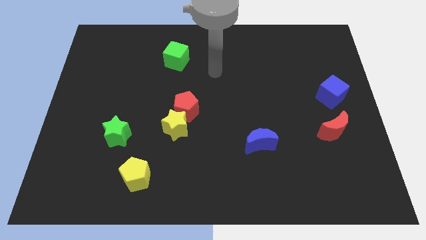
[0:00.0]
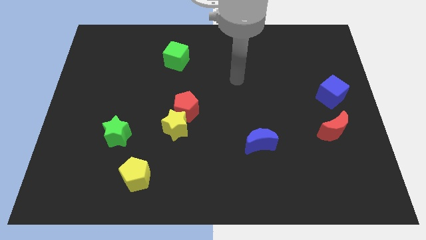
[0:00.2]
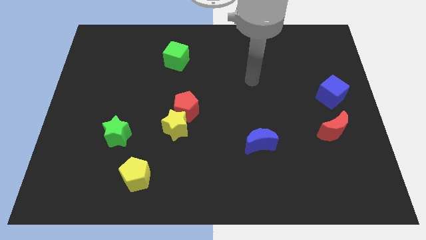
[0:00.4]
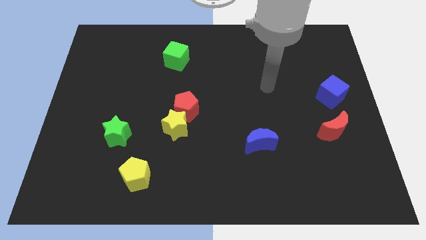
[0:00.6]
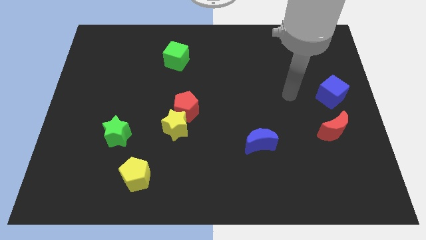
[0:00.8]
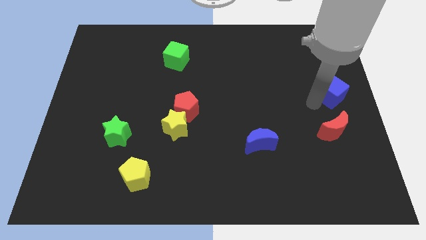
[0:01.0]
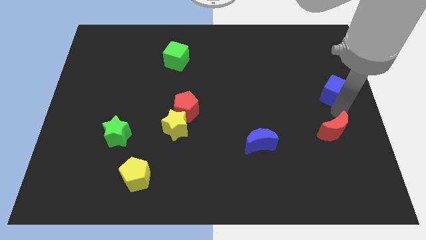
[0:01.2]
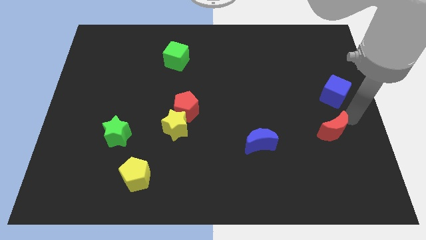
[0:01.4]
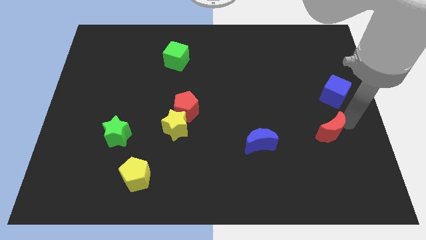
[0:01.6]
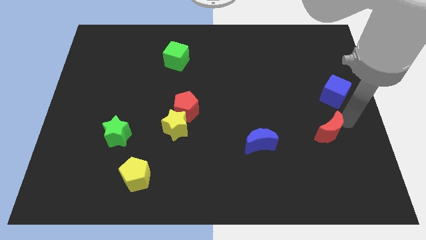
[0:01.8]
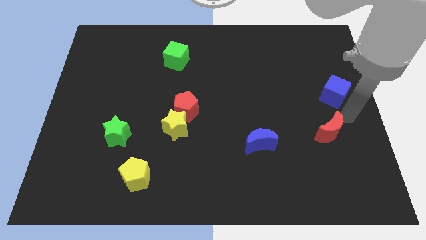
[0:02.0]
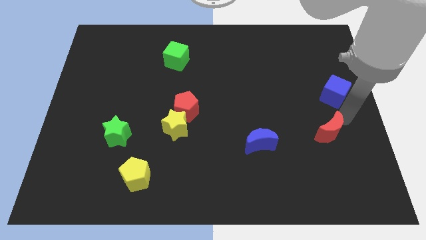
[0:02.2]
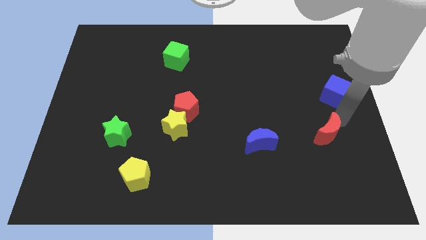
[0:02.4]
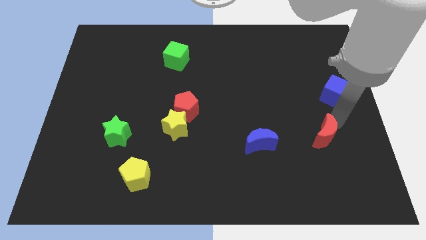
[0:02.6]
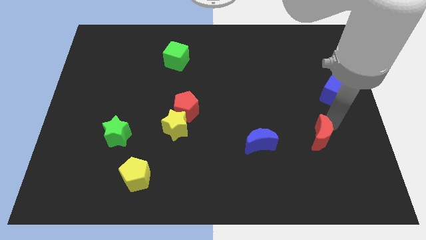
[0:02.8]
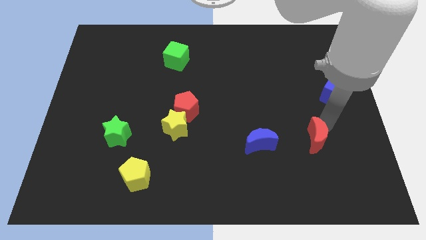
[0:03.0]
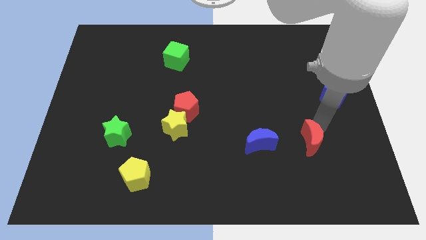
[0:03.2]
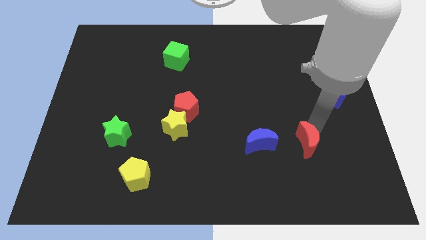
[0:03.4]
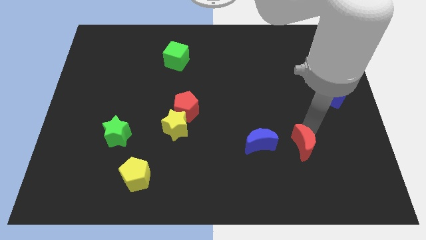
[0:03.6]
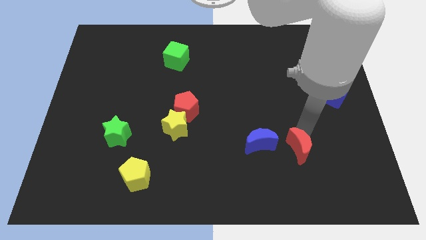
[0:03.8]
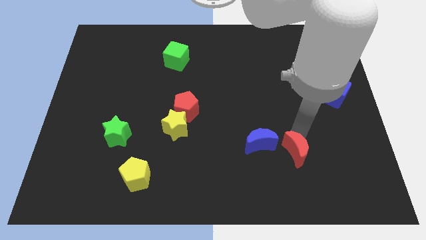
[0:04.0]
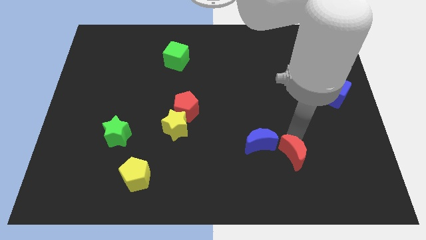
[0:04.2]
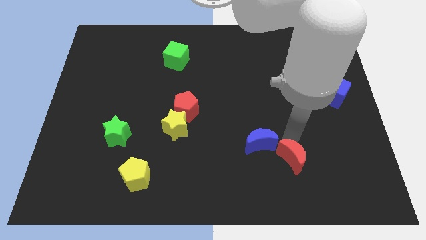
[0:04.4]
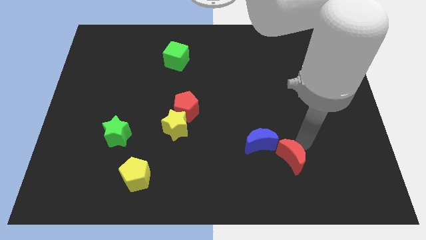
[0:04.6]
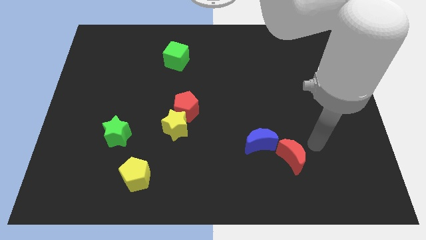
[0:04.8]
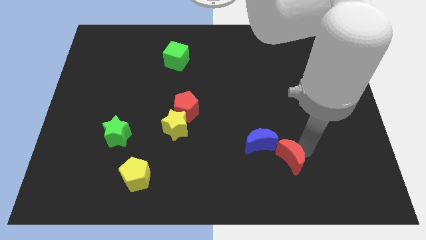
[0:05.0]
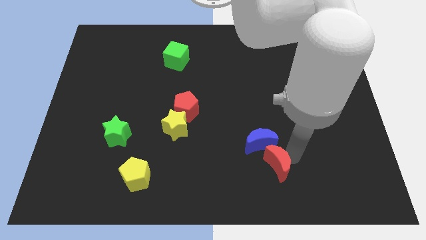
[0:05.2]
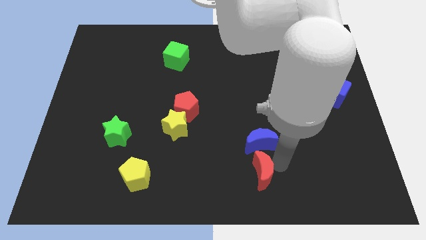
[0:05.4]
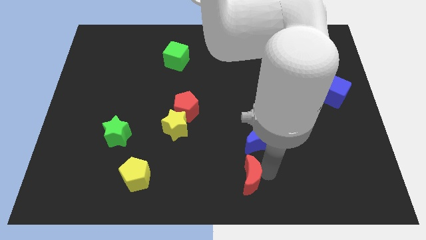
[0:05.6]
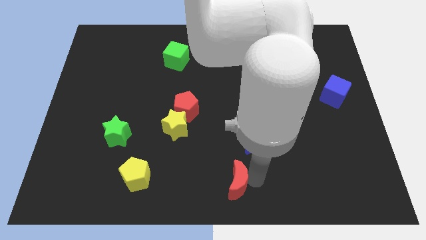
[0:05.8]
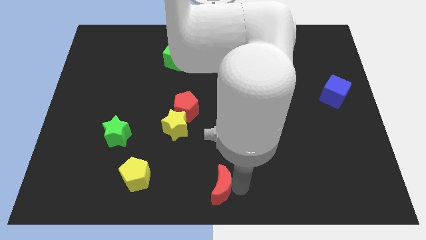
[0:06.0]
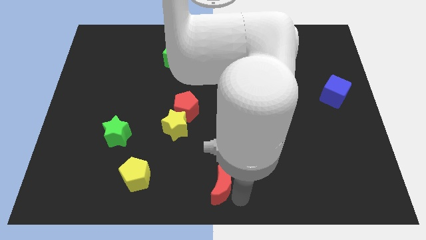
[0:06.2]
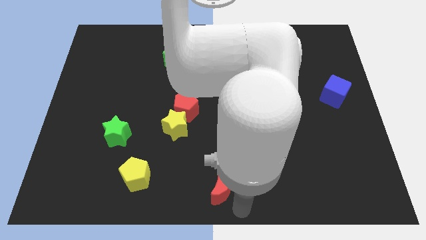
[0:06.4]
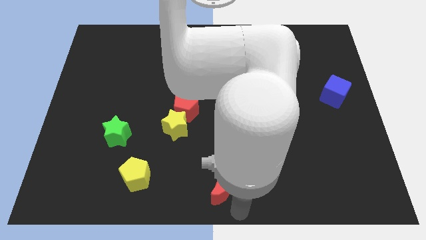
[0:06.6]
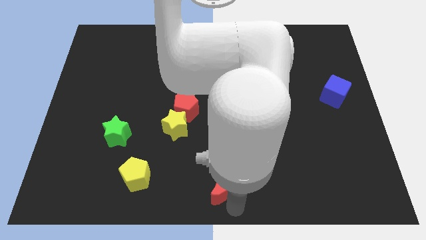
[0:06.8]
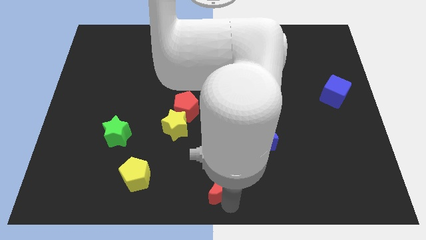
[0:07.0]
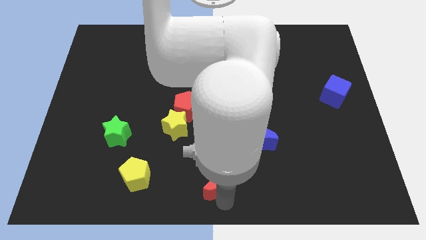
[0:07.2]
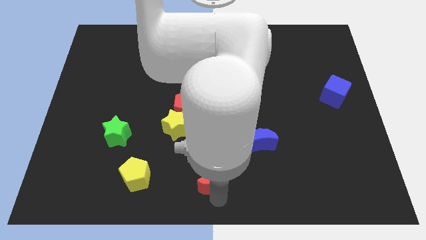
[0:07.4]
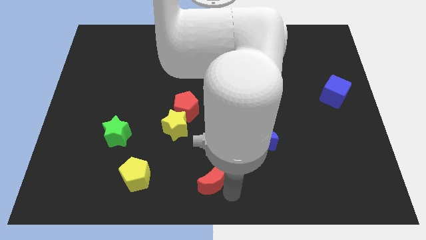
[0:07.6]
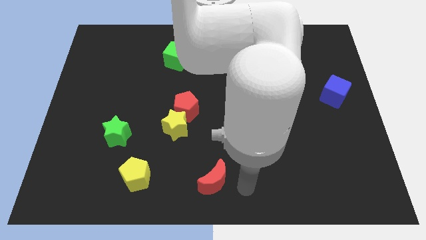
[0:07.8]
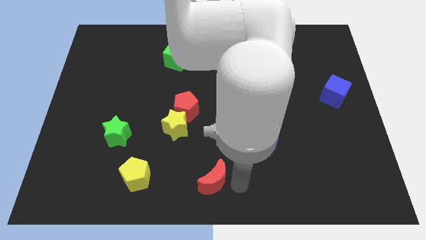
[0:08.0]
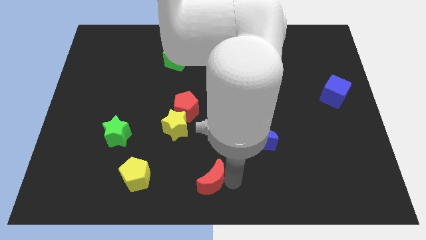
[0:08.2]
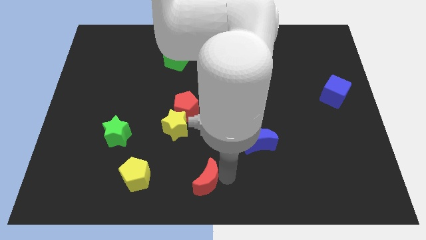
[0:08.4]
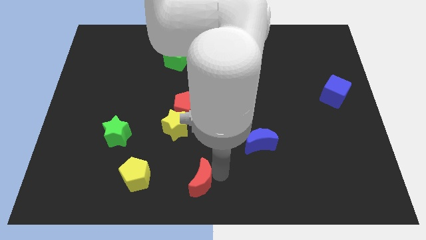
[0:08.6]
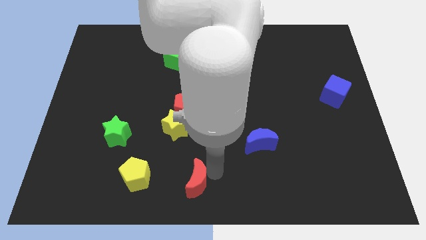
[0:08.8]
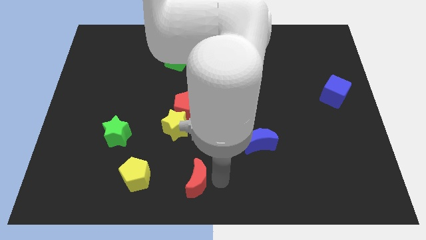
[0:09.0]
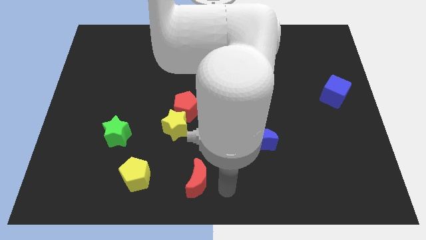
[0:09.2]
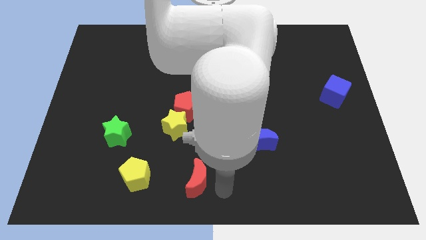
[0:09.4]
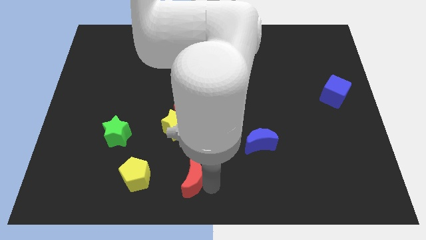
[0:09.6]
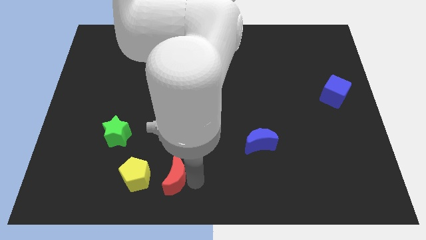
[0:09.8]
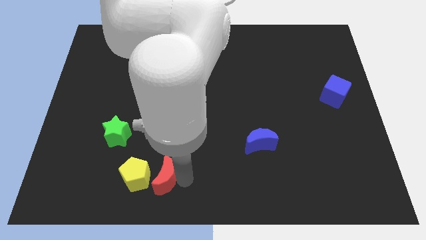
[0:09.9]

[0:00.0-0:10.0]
push the red moon close to the yellow pentagon

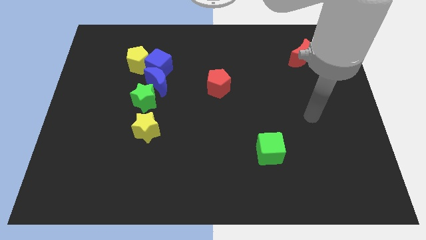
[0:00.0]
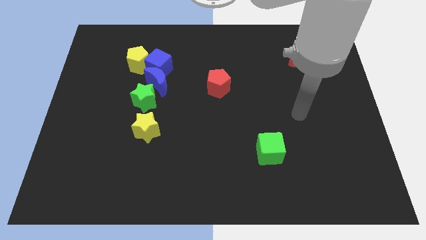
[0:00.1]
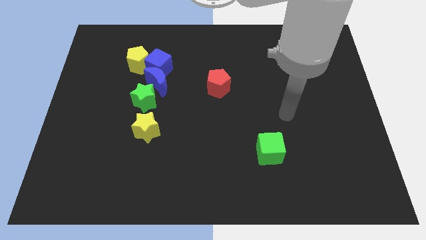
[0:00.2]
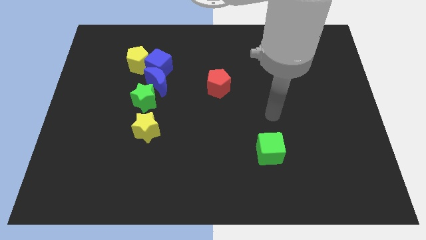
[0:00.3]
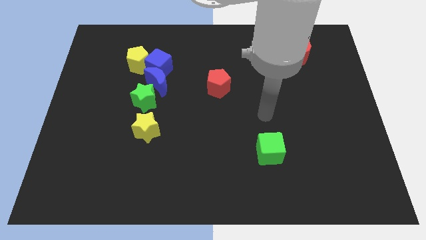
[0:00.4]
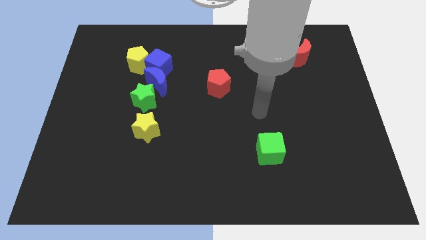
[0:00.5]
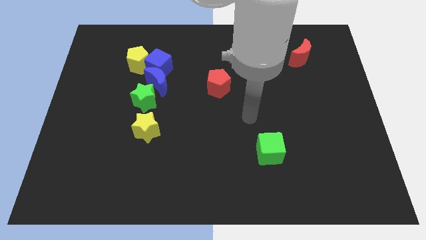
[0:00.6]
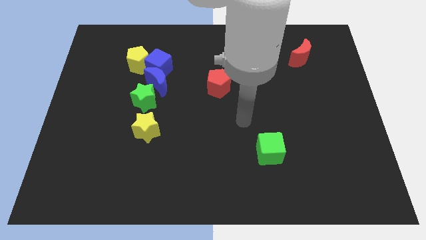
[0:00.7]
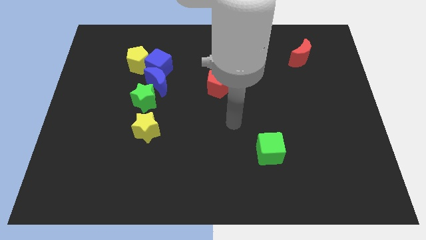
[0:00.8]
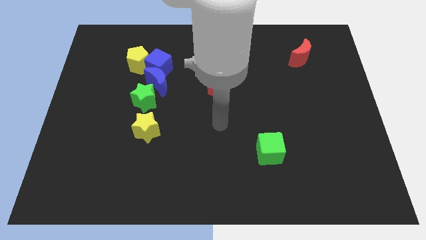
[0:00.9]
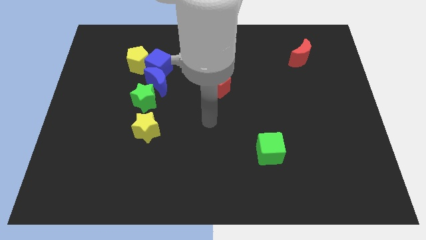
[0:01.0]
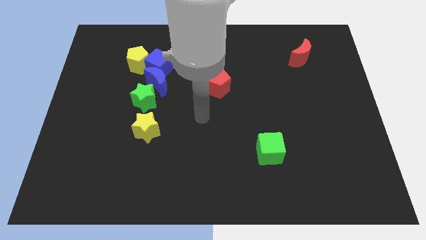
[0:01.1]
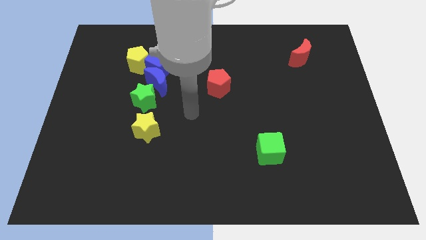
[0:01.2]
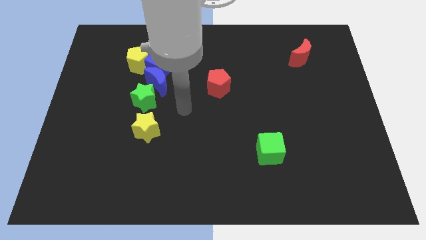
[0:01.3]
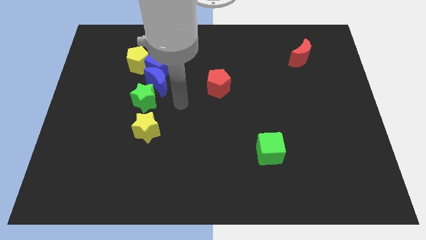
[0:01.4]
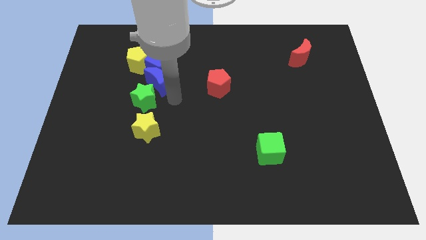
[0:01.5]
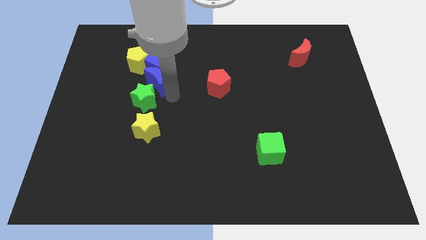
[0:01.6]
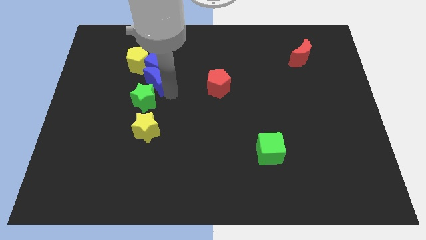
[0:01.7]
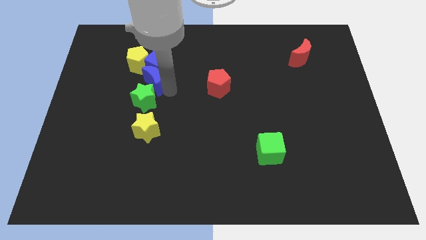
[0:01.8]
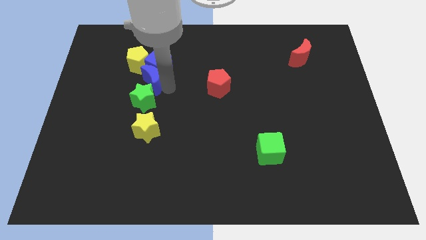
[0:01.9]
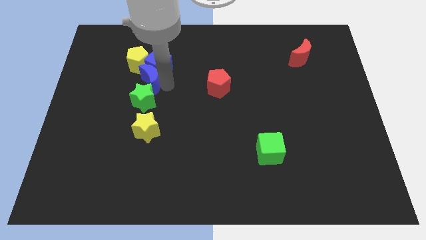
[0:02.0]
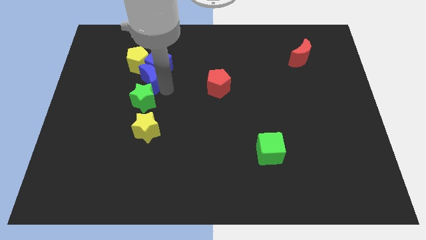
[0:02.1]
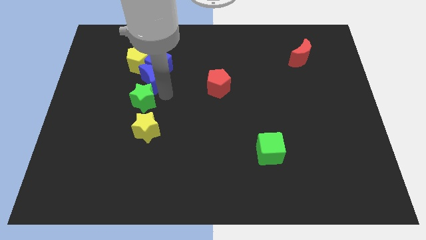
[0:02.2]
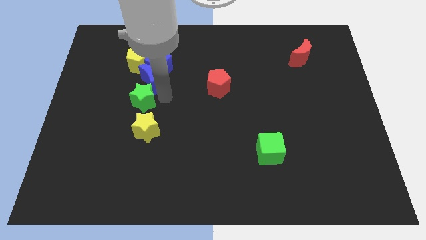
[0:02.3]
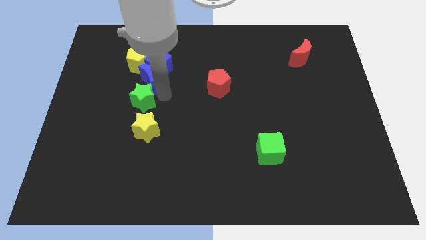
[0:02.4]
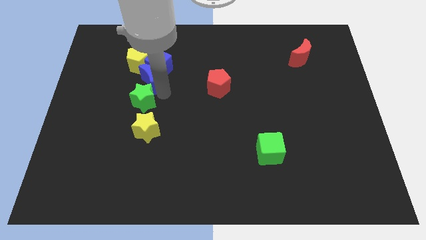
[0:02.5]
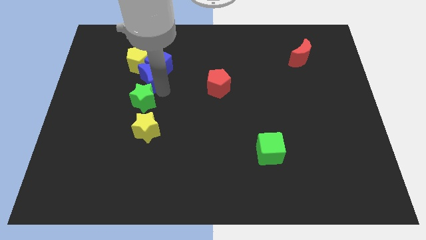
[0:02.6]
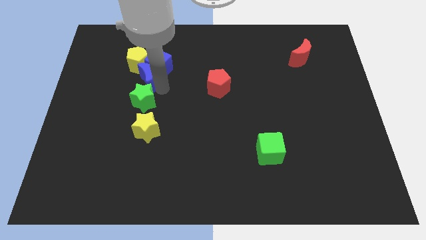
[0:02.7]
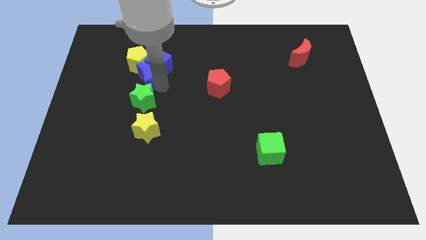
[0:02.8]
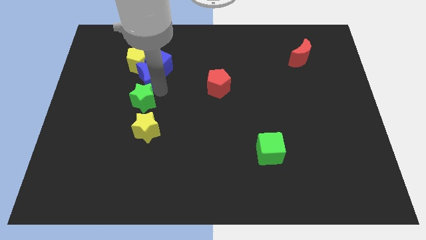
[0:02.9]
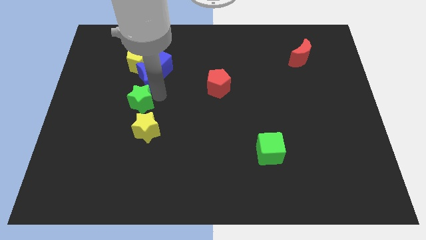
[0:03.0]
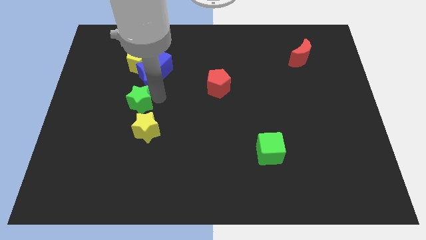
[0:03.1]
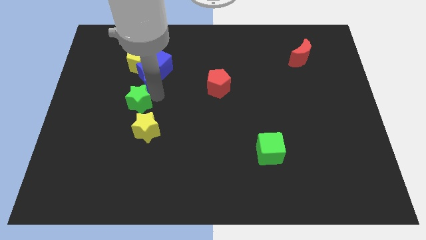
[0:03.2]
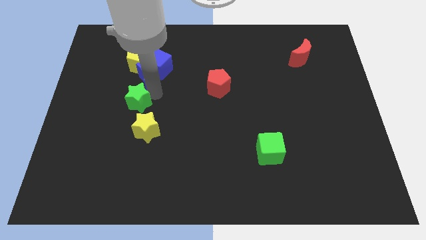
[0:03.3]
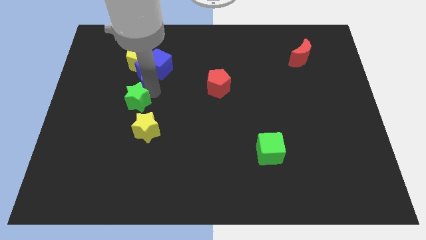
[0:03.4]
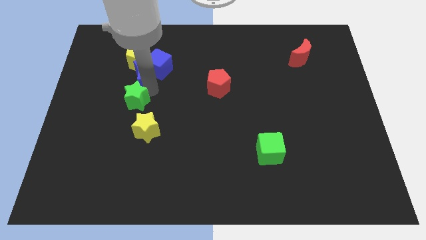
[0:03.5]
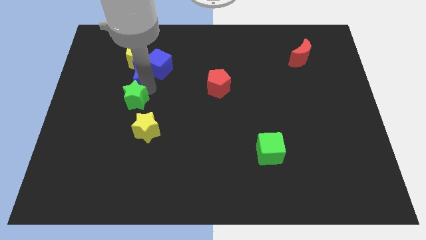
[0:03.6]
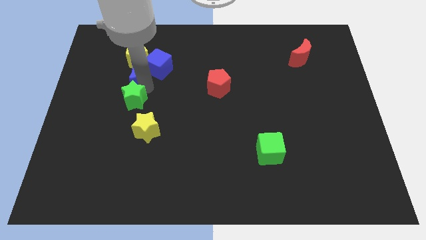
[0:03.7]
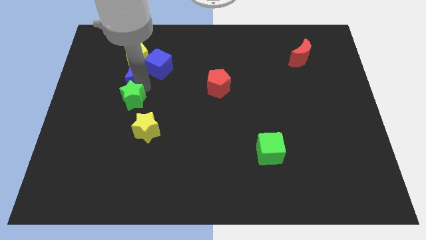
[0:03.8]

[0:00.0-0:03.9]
slide the blue moon towards the yellow pentagon
